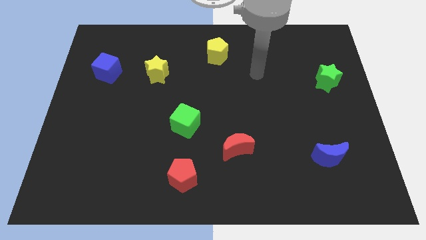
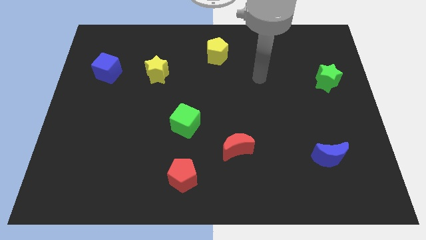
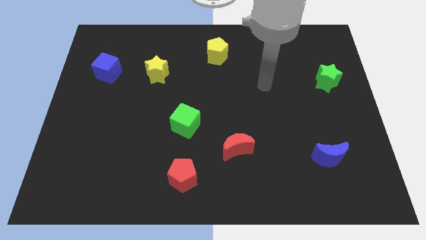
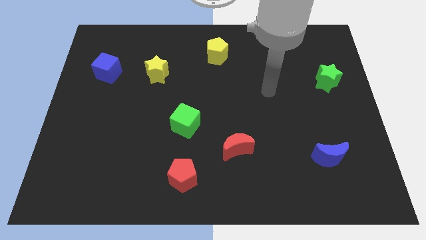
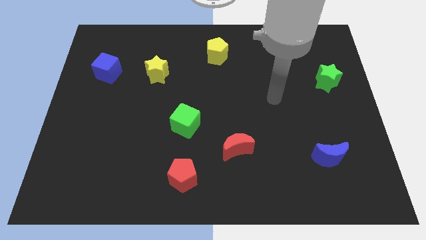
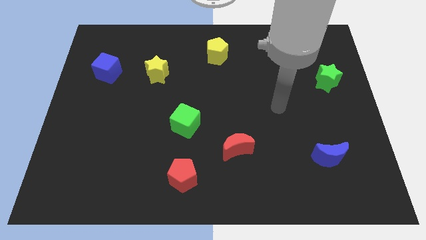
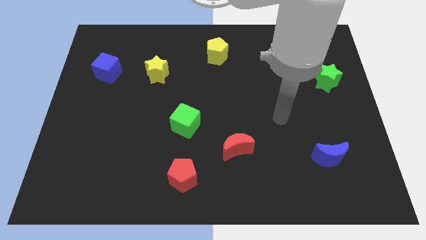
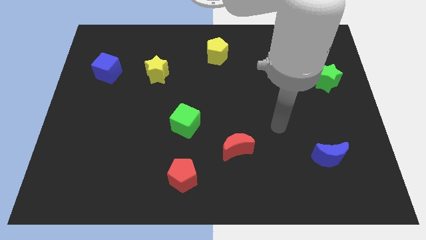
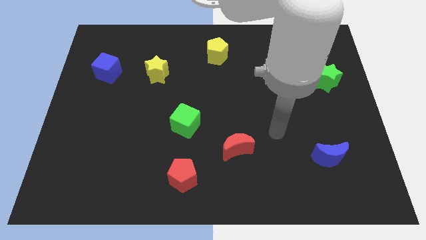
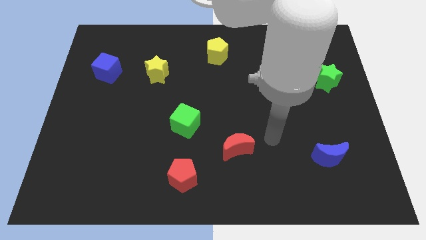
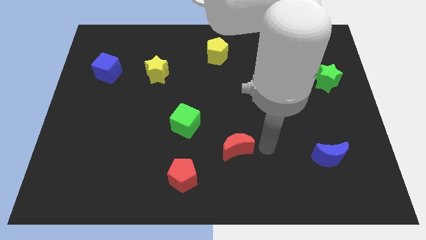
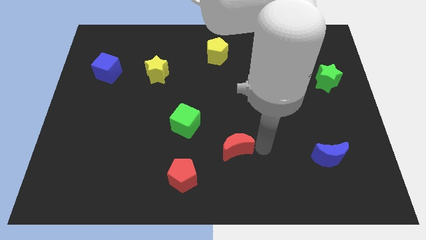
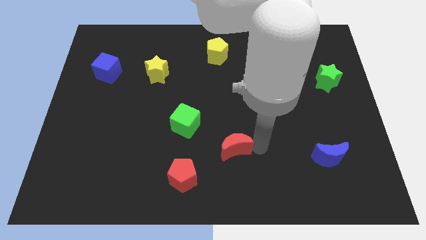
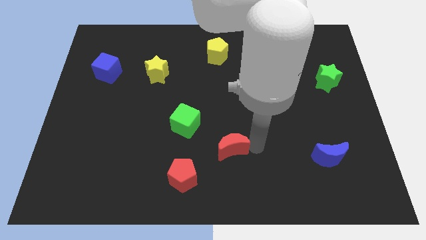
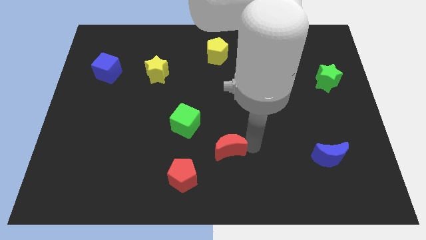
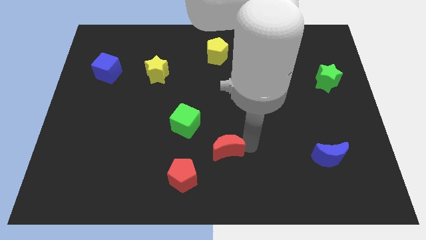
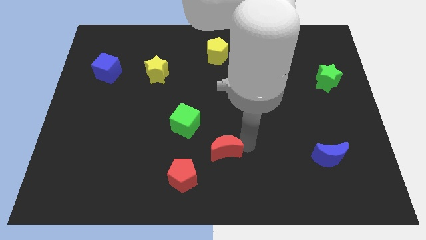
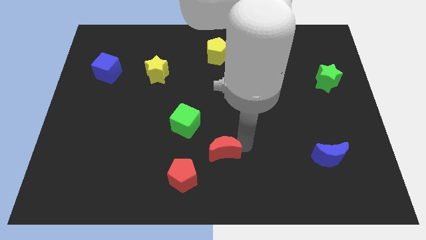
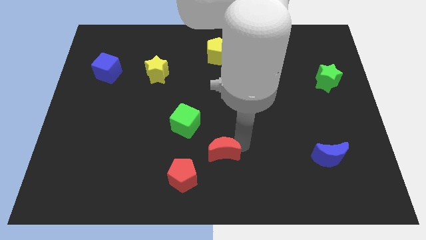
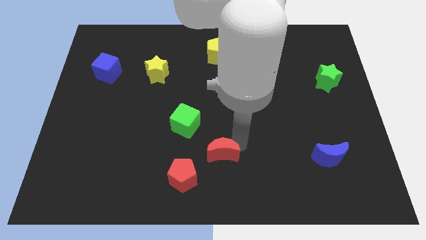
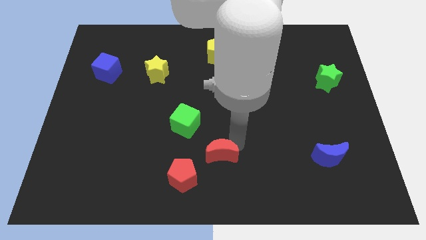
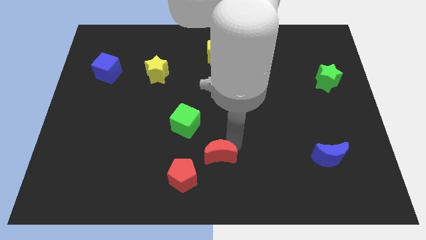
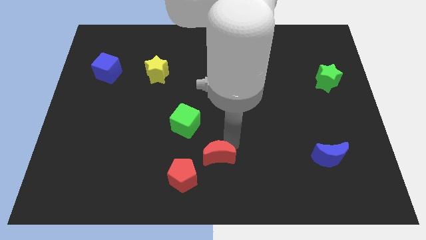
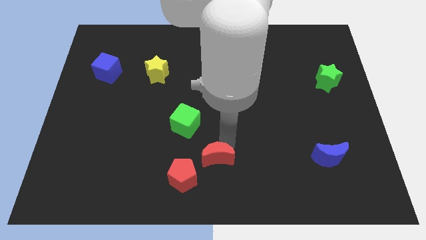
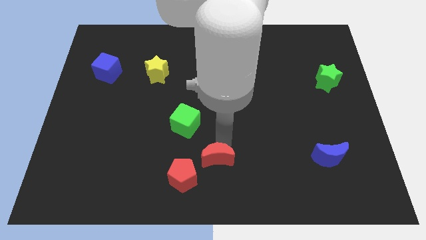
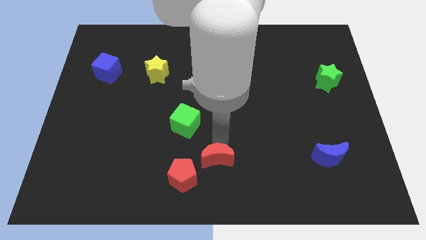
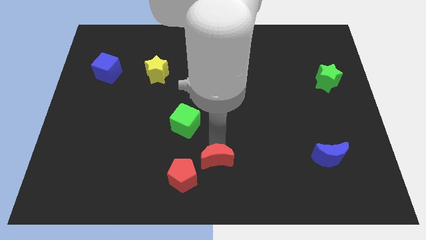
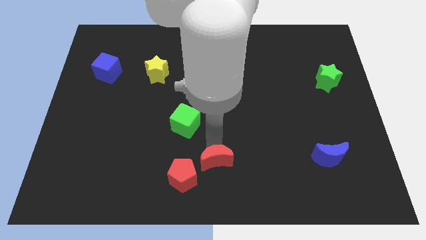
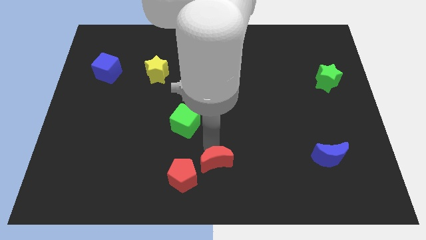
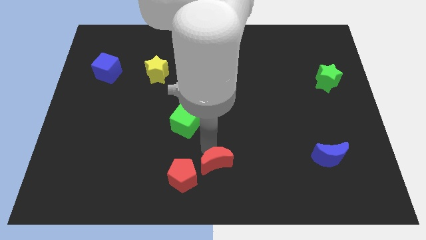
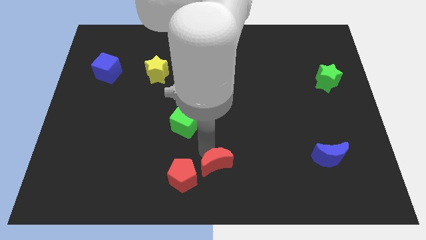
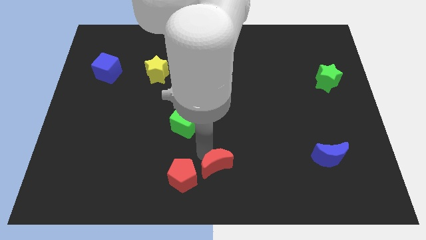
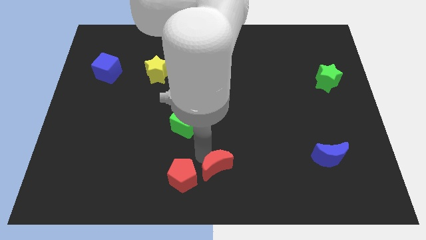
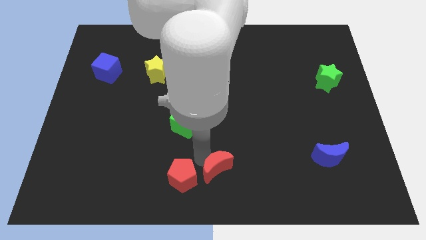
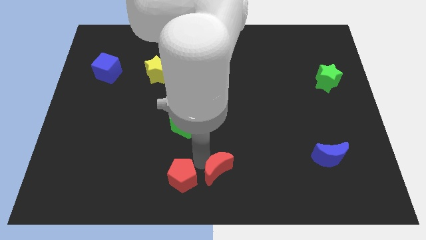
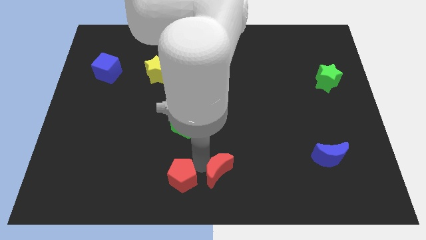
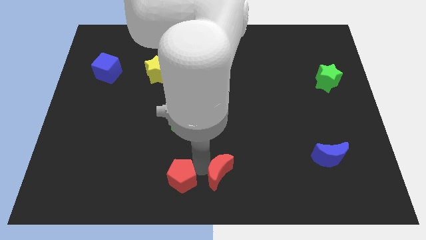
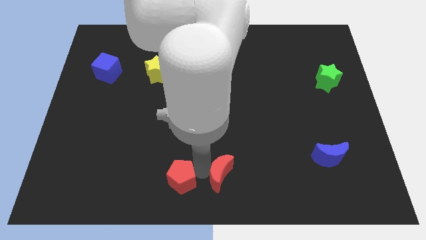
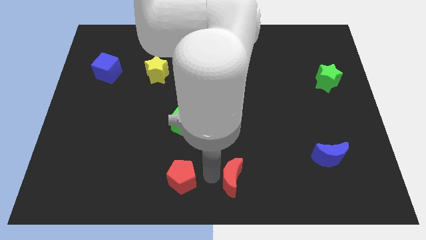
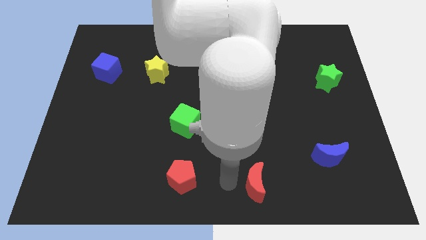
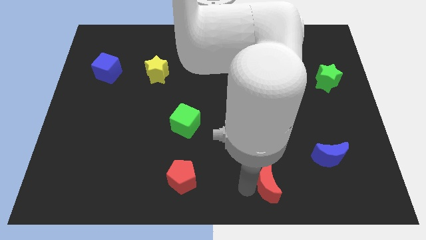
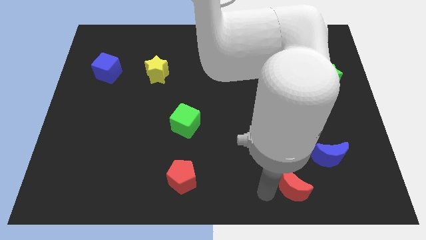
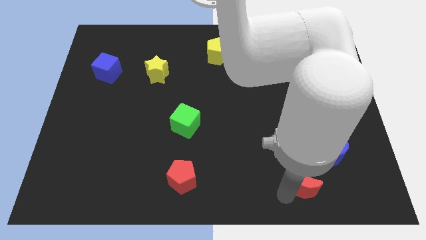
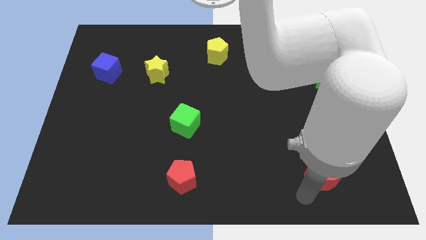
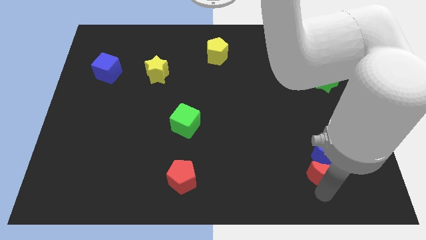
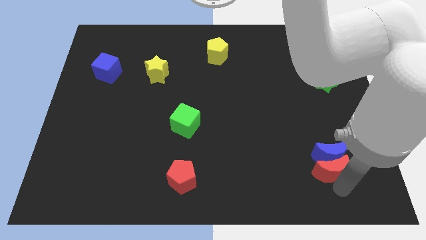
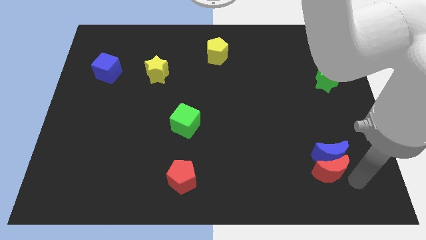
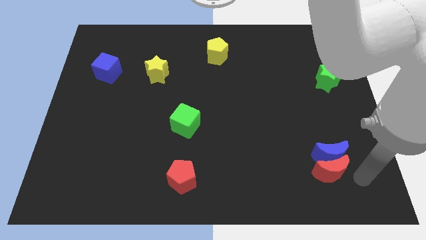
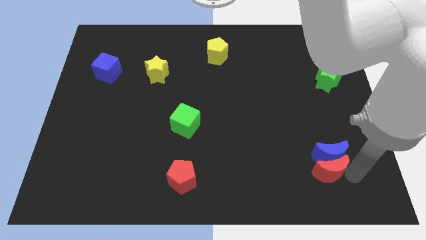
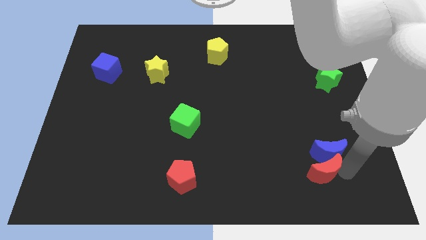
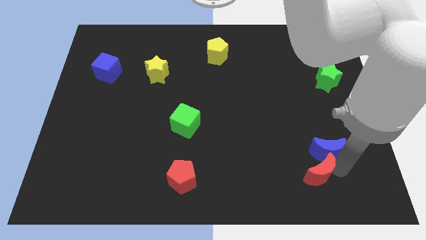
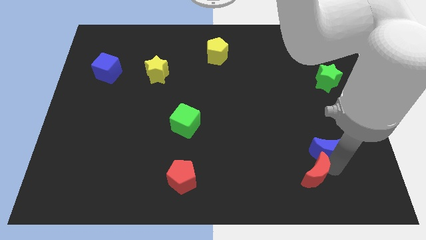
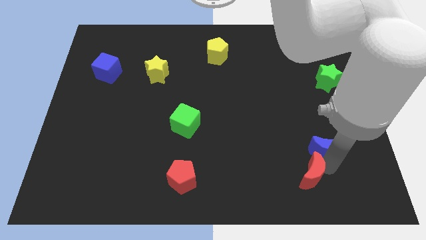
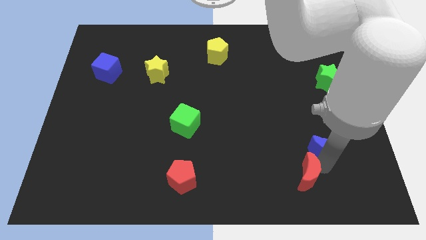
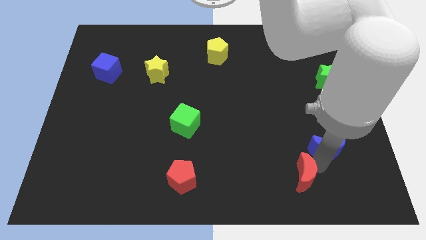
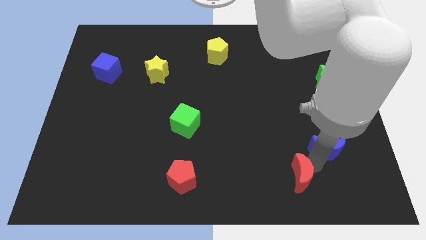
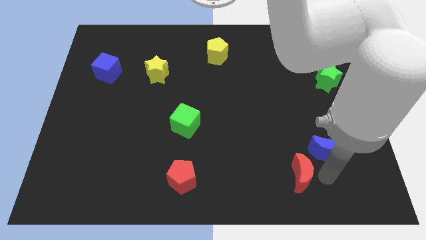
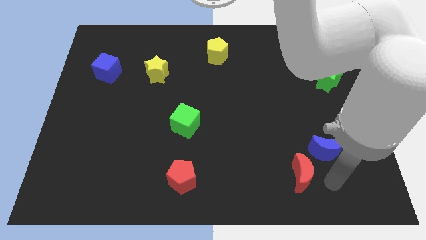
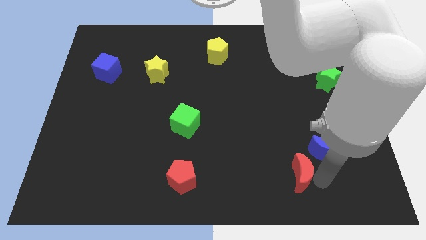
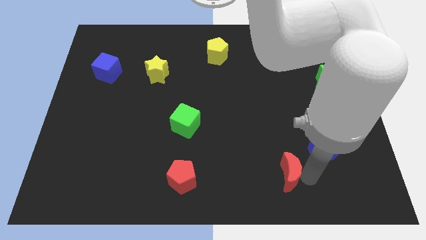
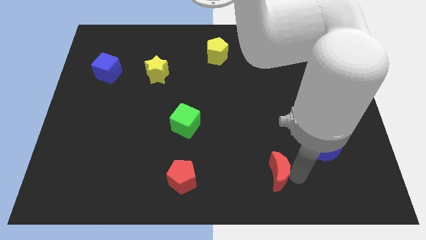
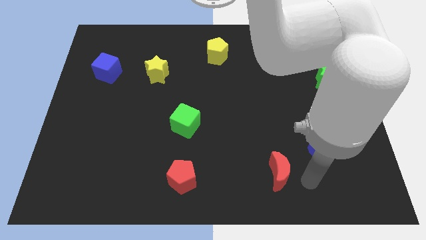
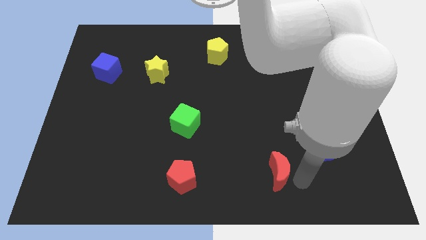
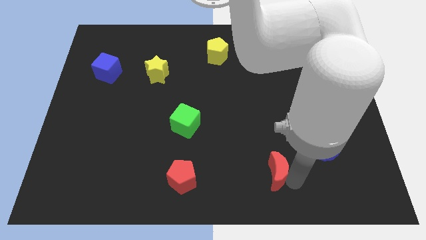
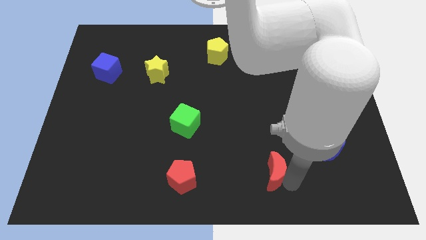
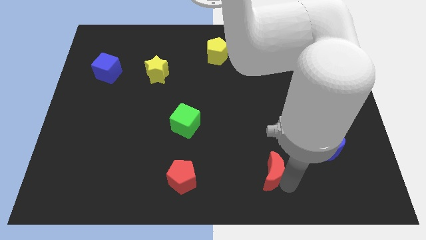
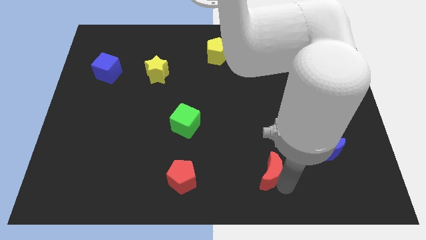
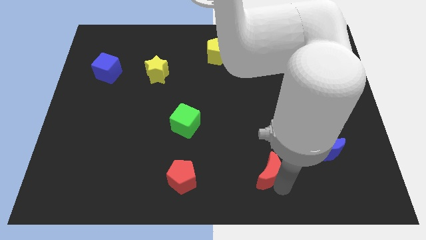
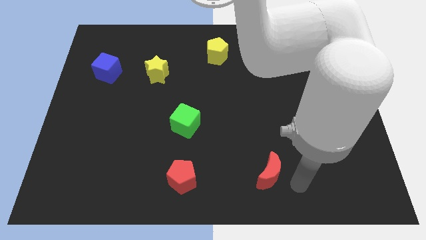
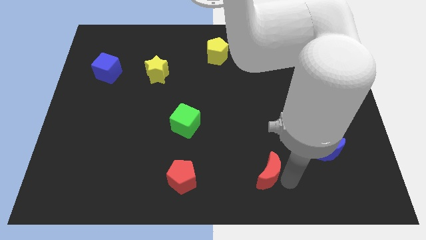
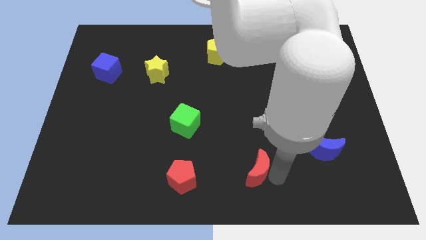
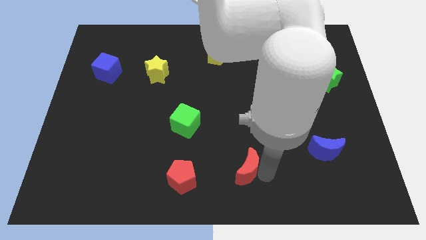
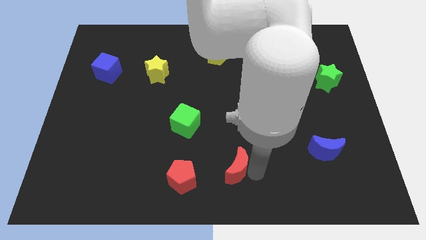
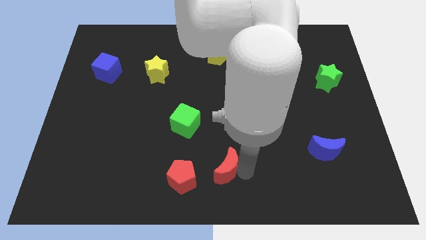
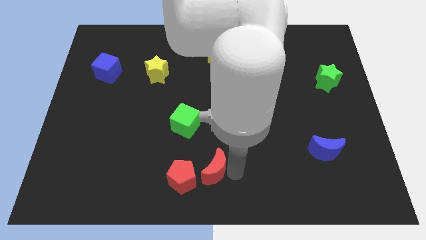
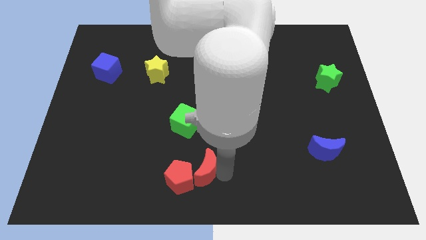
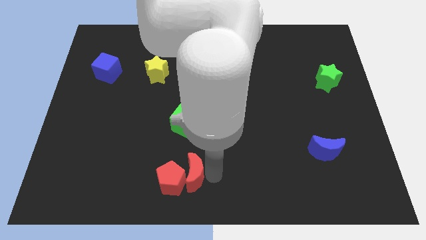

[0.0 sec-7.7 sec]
slightly move the red moon left
